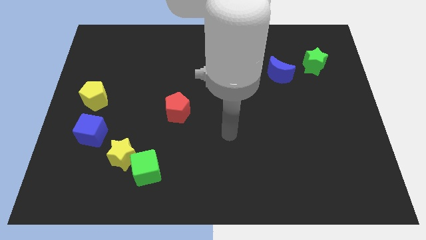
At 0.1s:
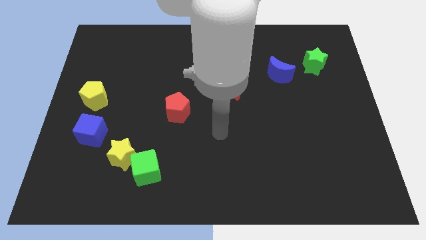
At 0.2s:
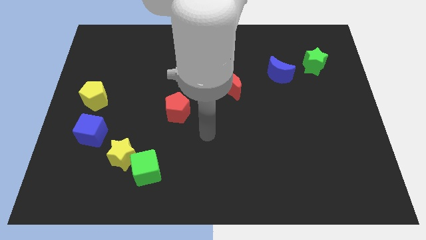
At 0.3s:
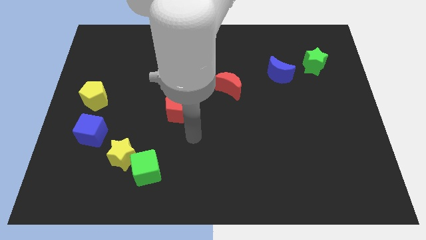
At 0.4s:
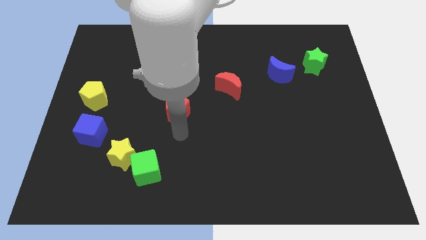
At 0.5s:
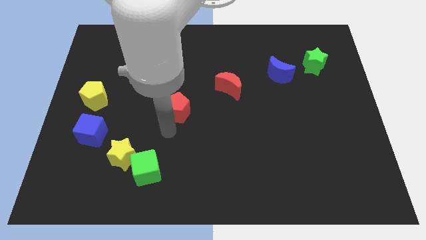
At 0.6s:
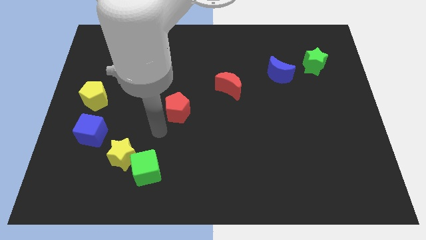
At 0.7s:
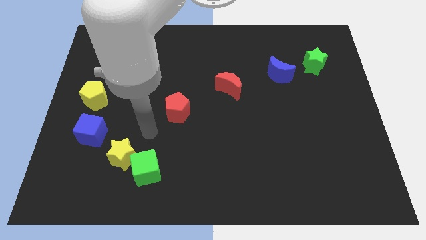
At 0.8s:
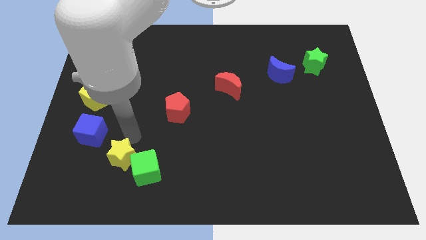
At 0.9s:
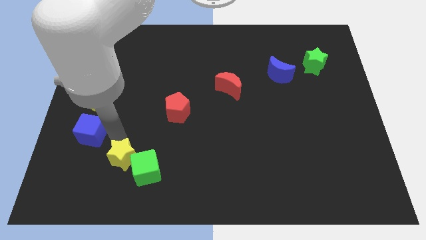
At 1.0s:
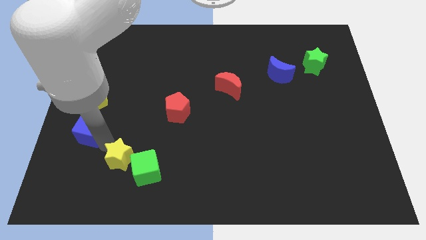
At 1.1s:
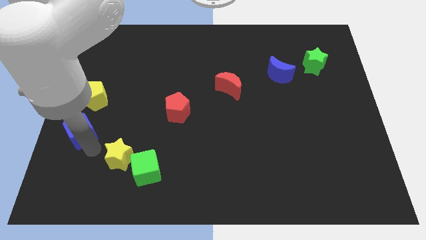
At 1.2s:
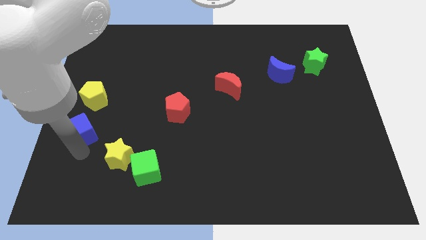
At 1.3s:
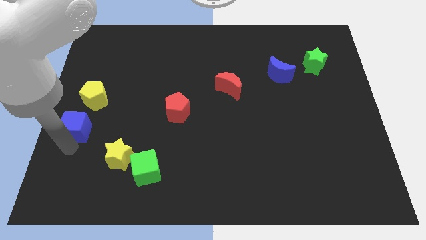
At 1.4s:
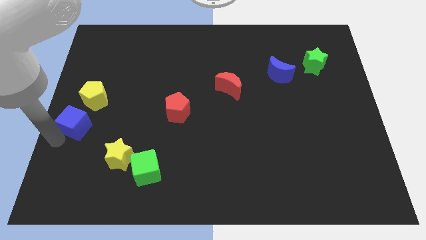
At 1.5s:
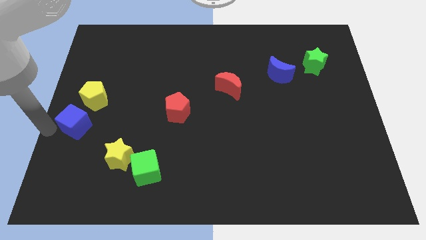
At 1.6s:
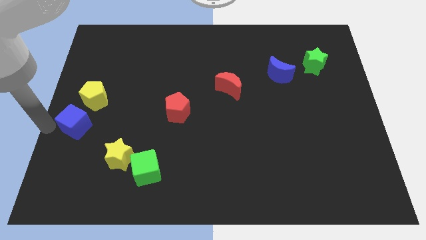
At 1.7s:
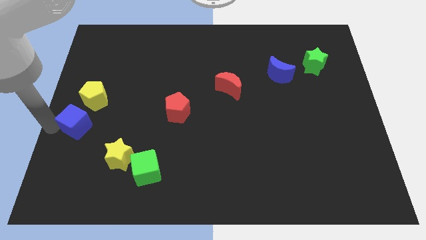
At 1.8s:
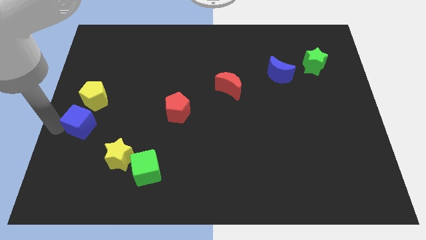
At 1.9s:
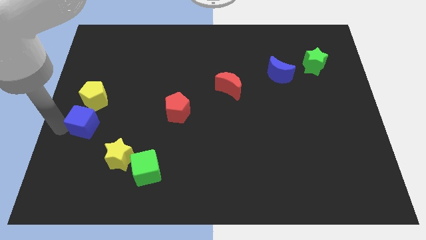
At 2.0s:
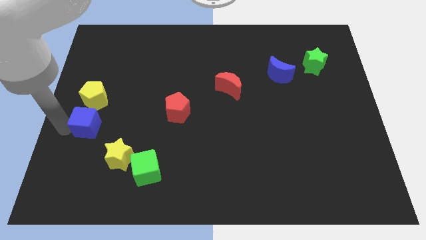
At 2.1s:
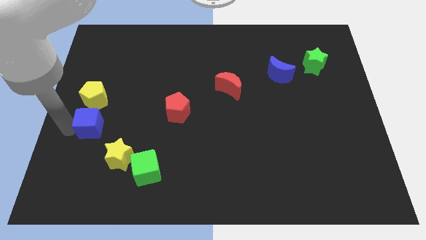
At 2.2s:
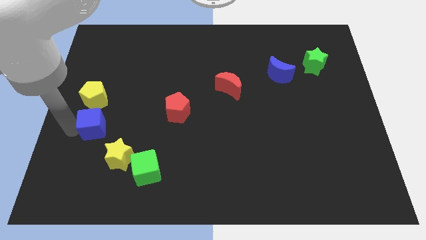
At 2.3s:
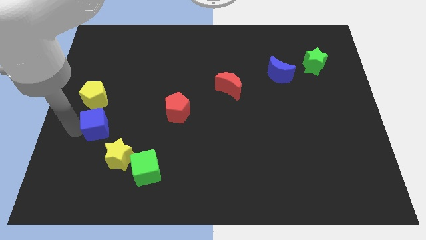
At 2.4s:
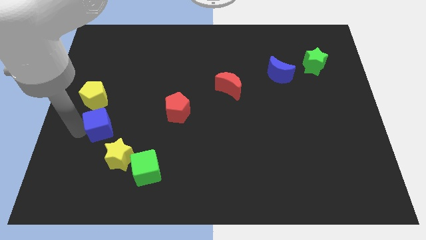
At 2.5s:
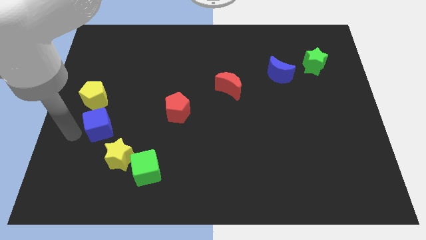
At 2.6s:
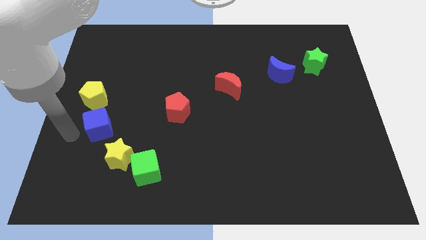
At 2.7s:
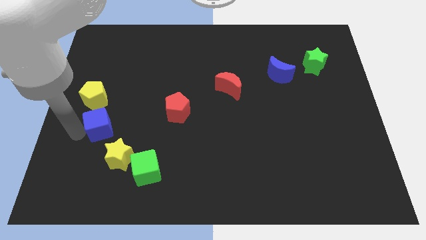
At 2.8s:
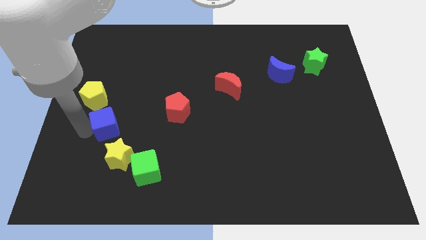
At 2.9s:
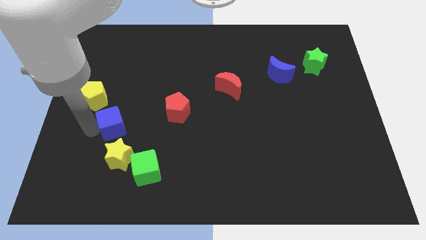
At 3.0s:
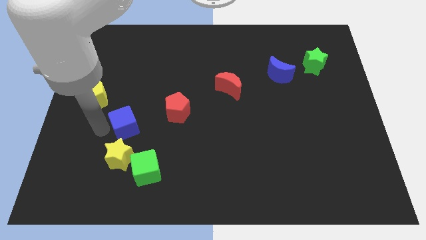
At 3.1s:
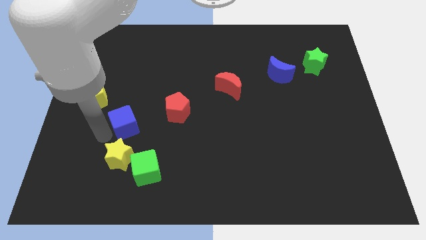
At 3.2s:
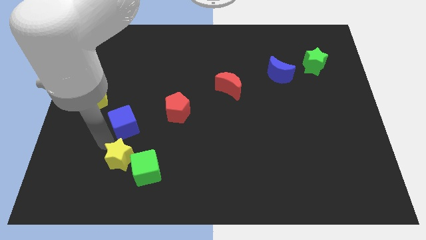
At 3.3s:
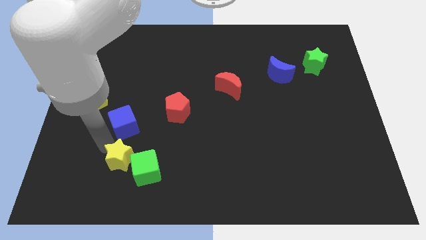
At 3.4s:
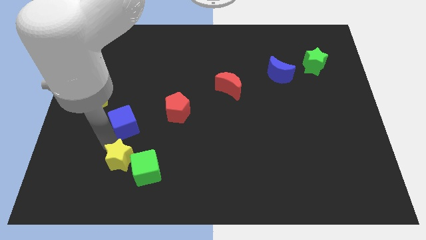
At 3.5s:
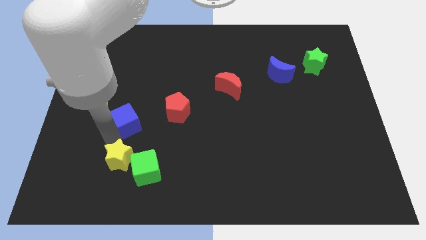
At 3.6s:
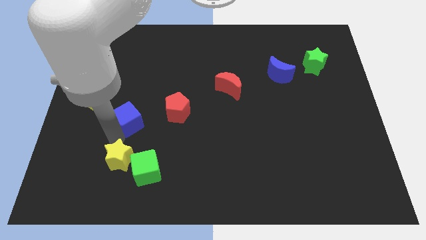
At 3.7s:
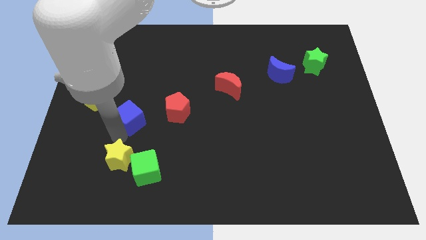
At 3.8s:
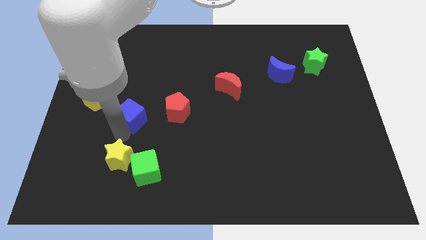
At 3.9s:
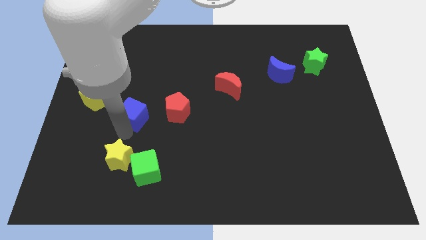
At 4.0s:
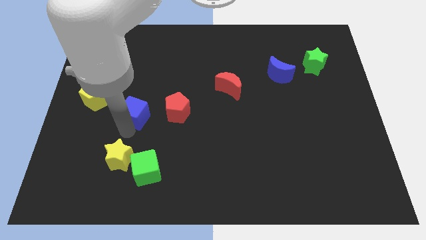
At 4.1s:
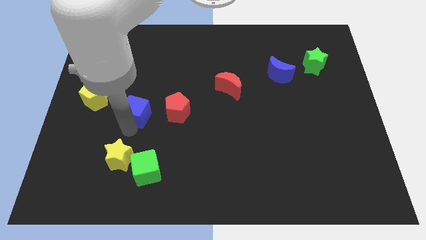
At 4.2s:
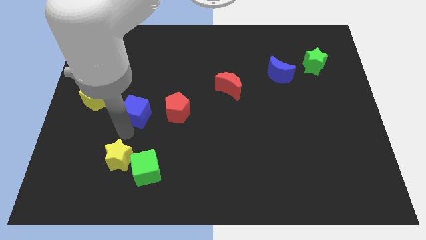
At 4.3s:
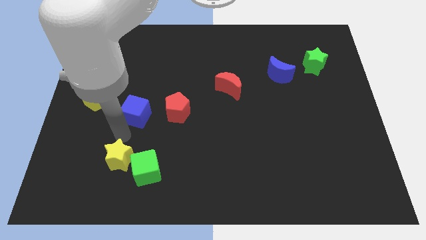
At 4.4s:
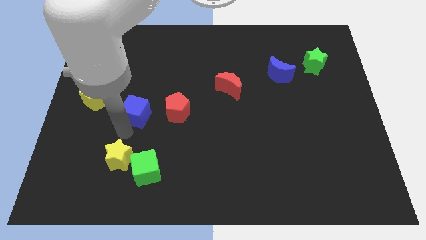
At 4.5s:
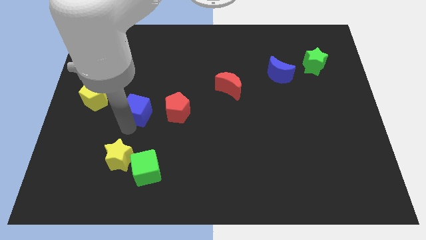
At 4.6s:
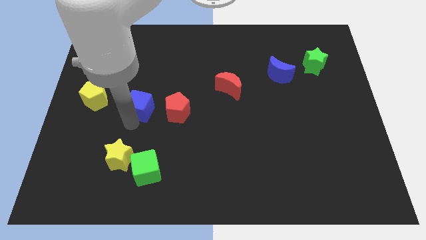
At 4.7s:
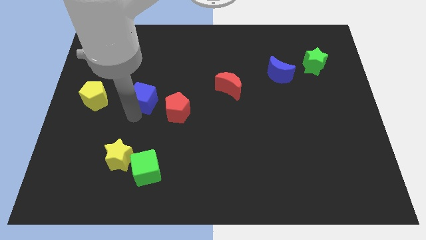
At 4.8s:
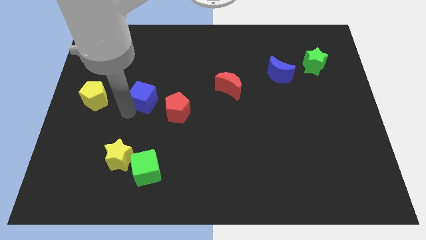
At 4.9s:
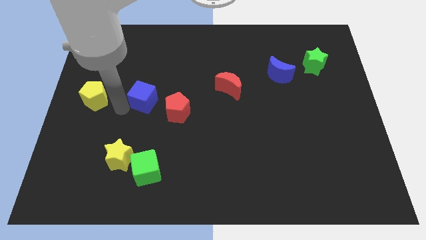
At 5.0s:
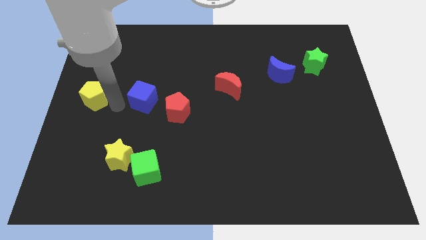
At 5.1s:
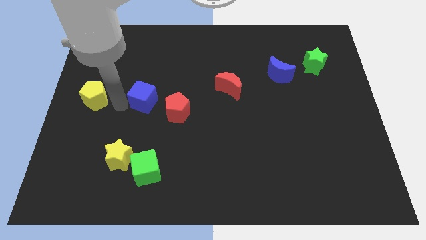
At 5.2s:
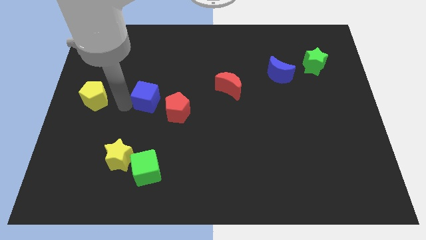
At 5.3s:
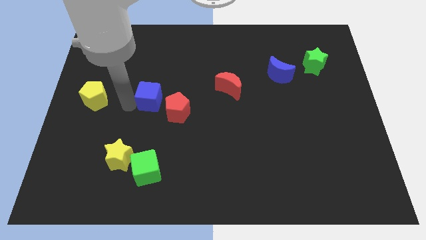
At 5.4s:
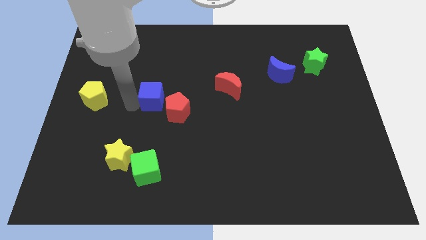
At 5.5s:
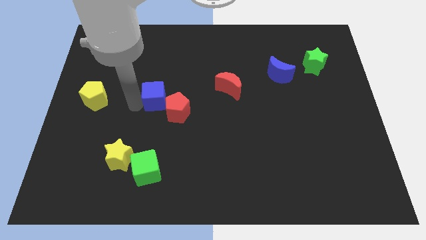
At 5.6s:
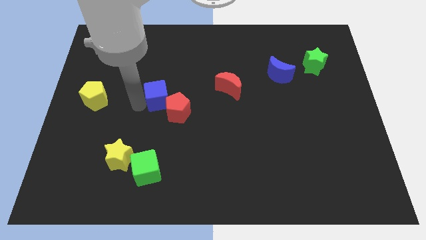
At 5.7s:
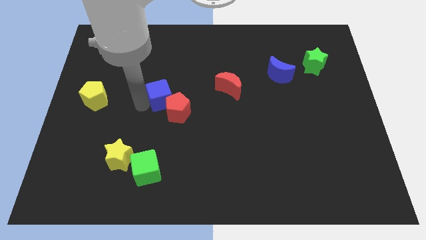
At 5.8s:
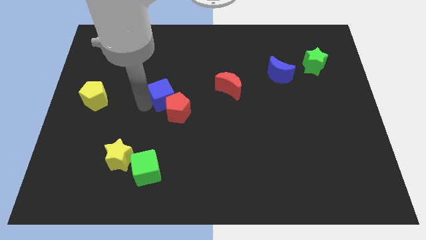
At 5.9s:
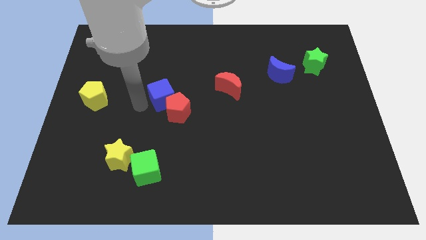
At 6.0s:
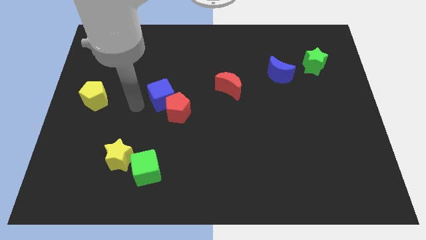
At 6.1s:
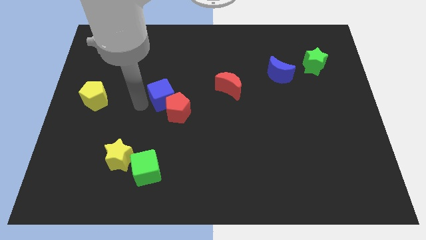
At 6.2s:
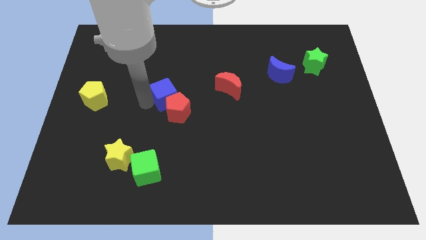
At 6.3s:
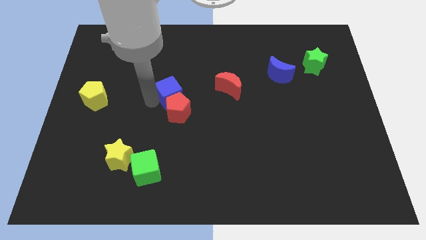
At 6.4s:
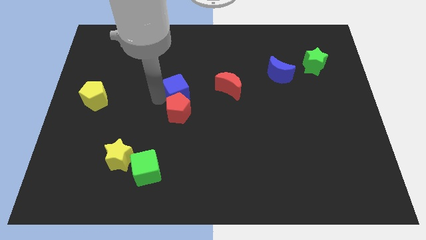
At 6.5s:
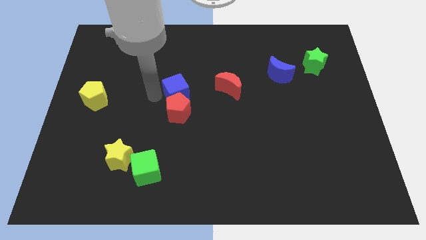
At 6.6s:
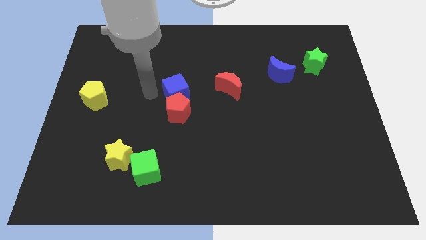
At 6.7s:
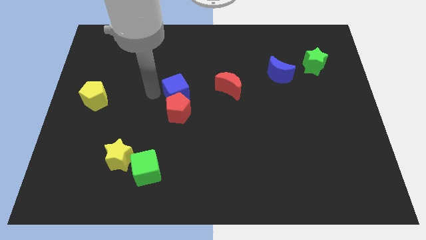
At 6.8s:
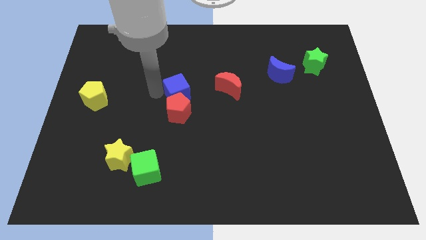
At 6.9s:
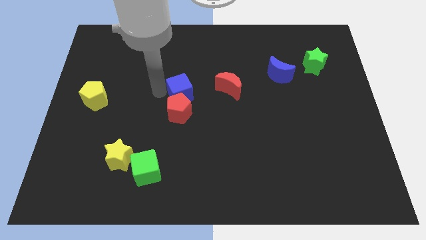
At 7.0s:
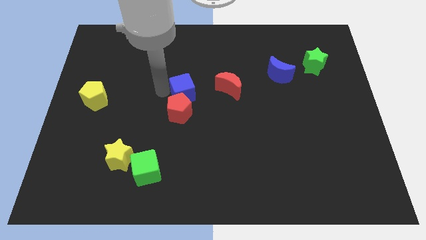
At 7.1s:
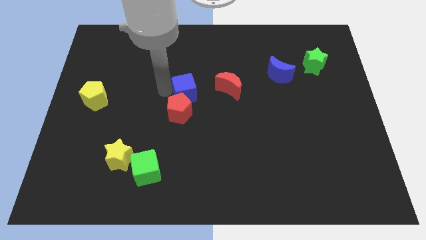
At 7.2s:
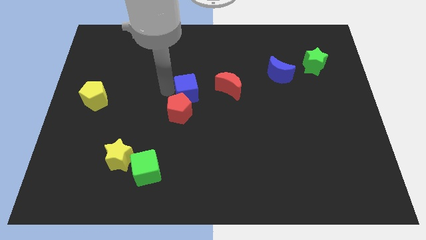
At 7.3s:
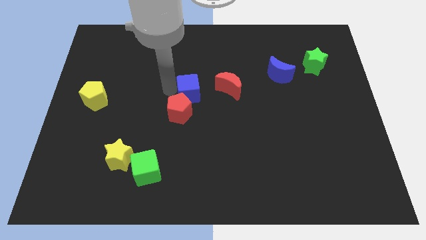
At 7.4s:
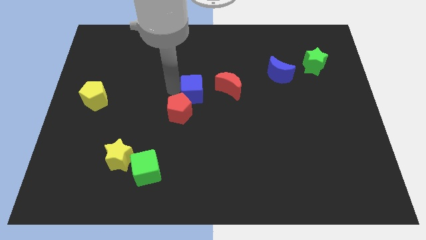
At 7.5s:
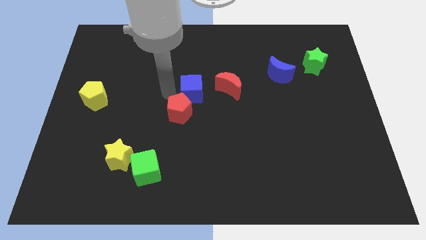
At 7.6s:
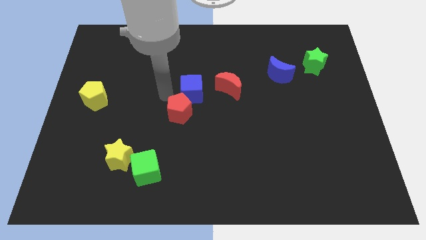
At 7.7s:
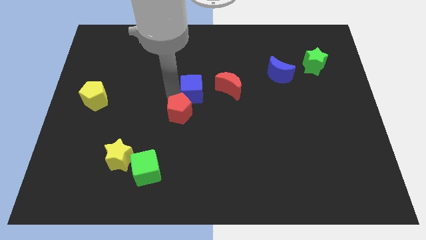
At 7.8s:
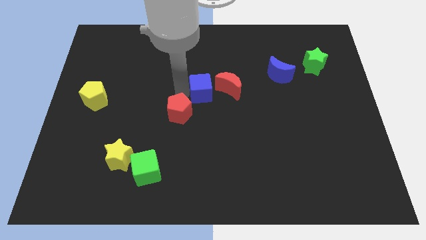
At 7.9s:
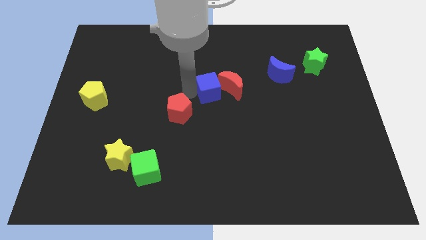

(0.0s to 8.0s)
slide the blue cube to the red moon
